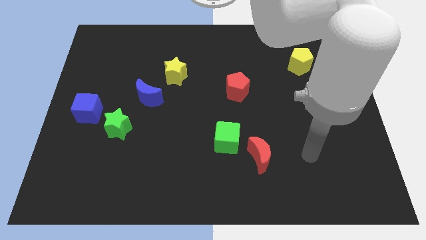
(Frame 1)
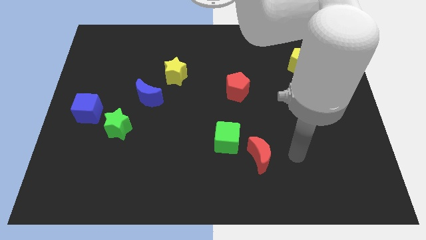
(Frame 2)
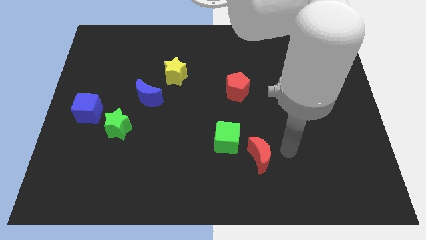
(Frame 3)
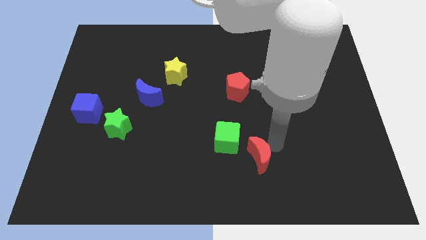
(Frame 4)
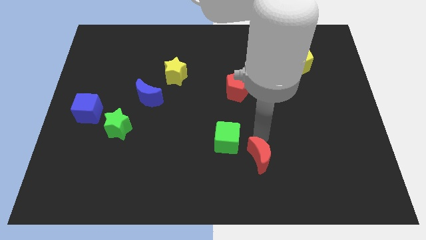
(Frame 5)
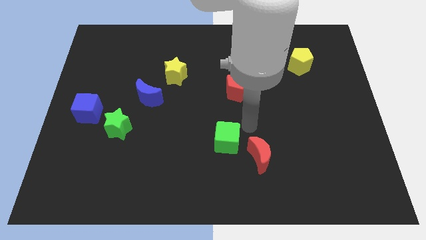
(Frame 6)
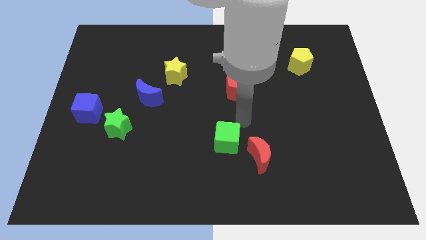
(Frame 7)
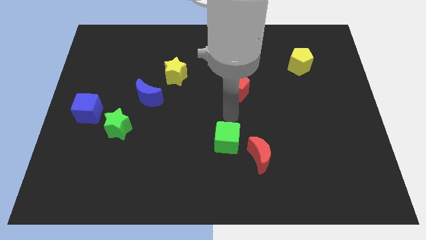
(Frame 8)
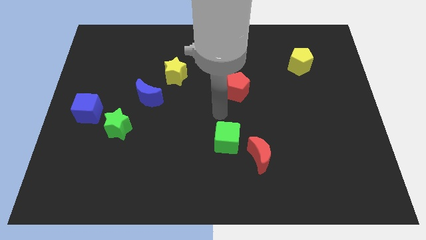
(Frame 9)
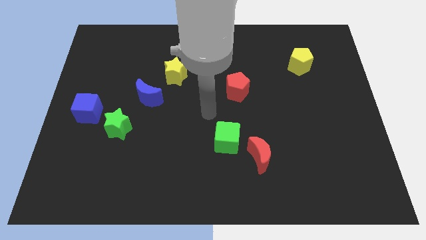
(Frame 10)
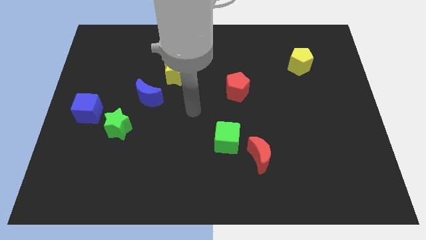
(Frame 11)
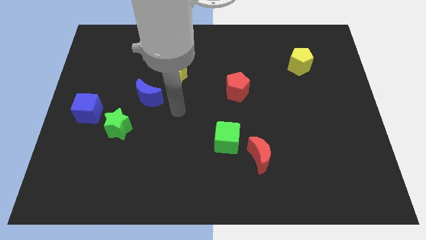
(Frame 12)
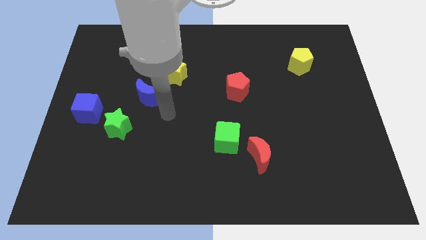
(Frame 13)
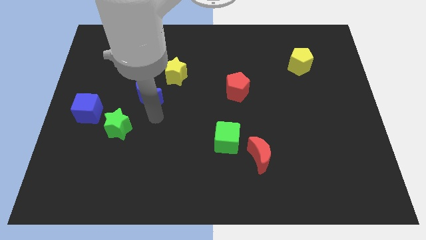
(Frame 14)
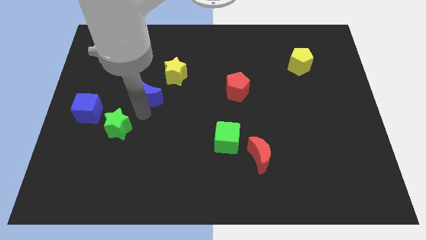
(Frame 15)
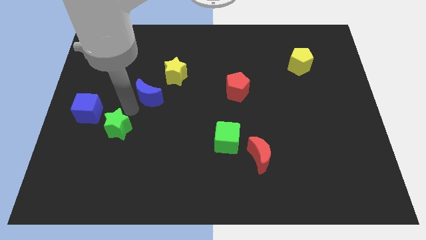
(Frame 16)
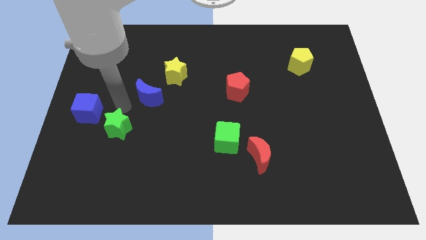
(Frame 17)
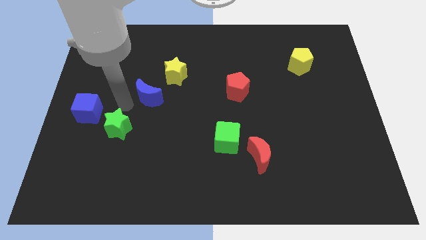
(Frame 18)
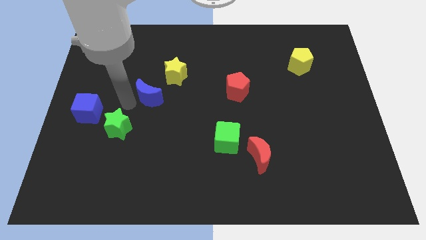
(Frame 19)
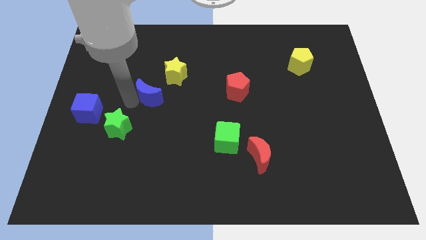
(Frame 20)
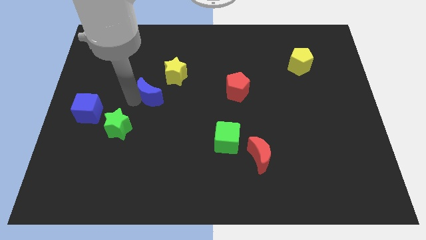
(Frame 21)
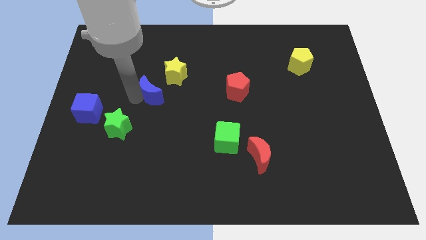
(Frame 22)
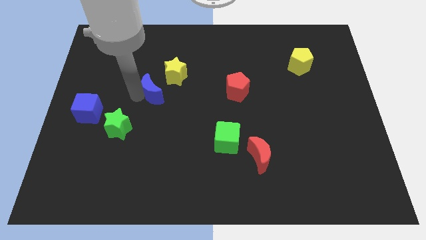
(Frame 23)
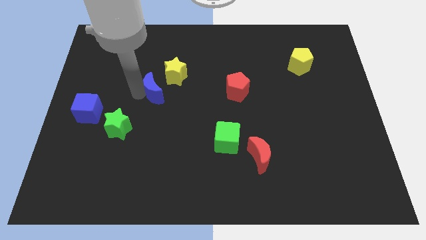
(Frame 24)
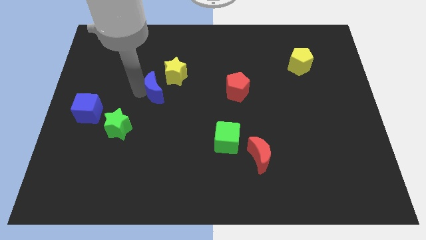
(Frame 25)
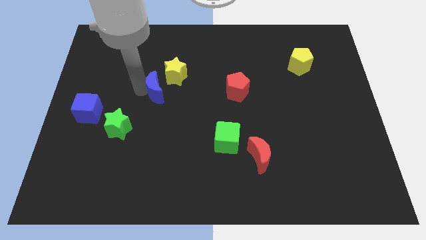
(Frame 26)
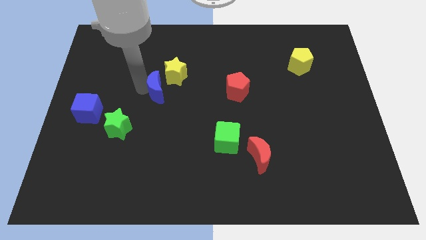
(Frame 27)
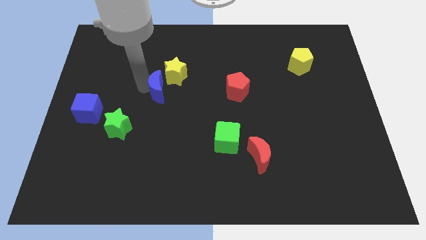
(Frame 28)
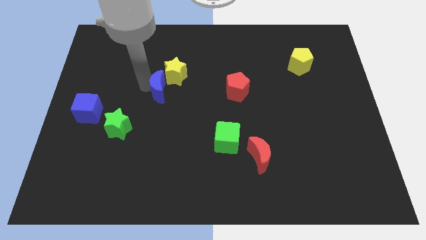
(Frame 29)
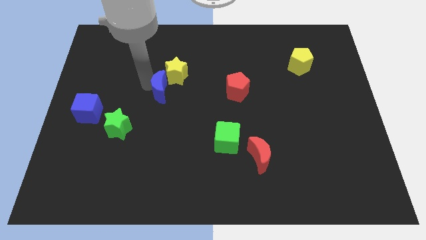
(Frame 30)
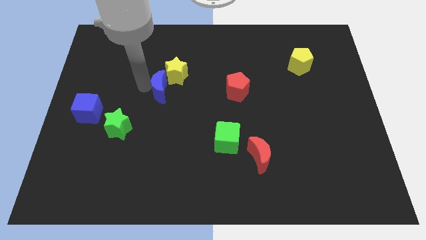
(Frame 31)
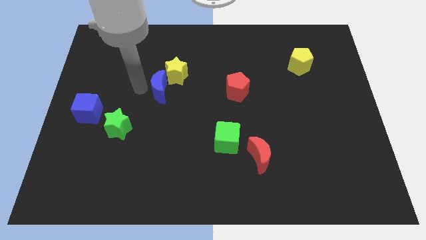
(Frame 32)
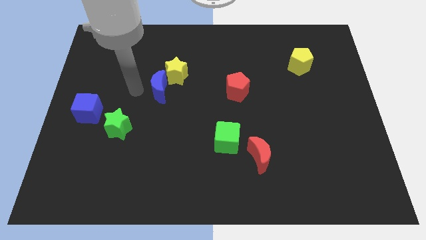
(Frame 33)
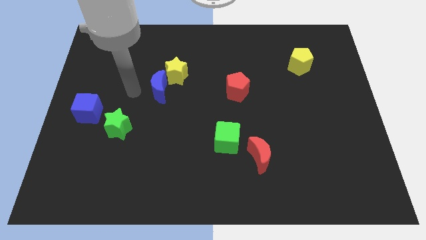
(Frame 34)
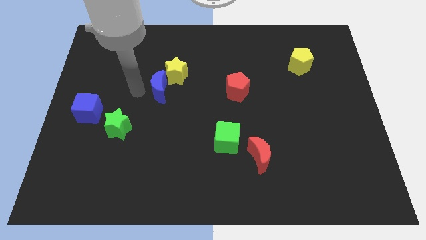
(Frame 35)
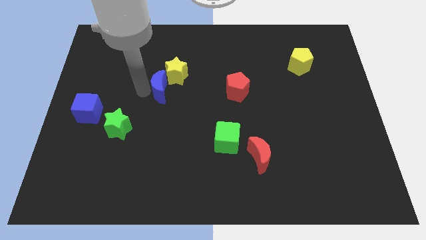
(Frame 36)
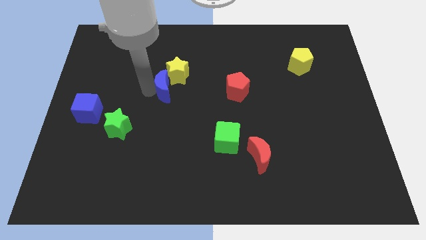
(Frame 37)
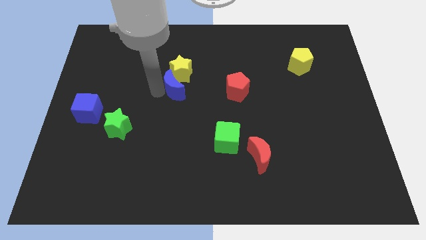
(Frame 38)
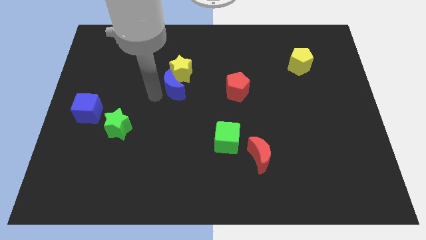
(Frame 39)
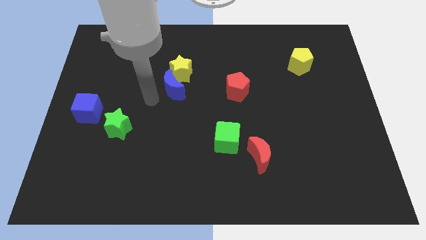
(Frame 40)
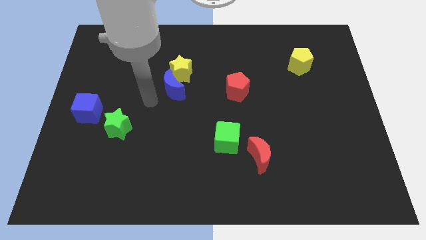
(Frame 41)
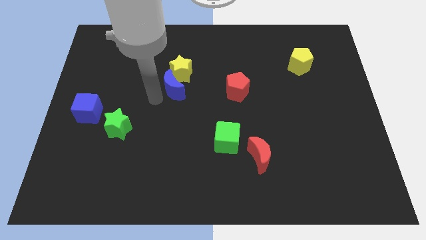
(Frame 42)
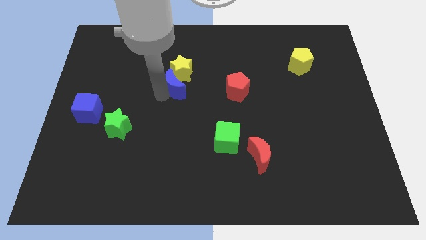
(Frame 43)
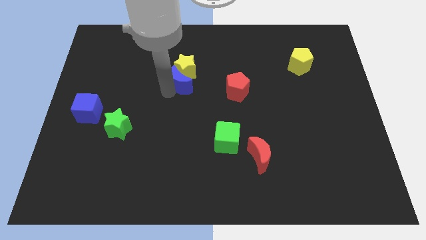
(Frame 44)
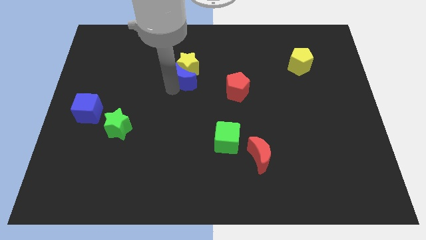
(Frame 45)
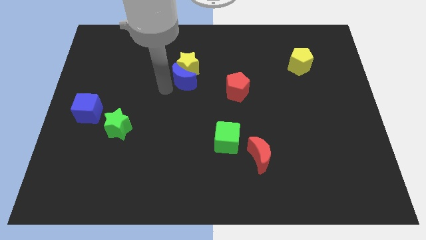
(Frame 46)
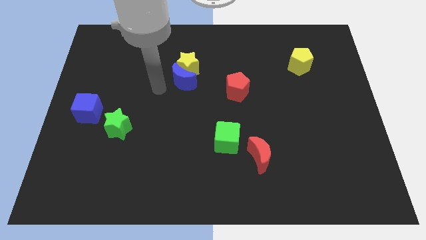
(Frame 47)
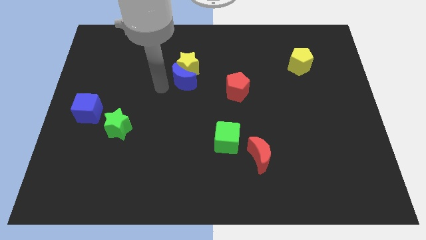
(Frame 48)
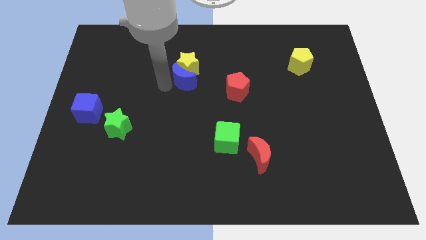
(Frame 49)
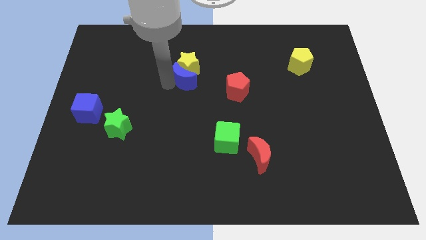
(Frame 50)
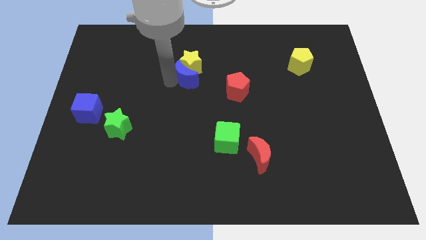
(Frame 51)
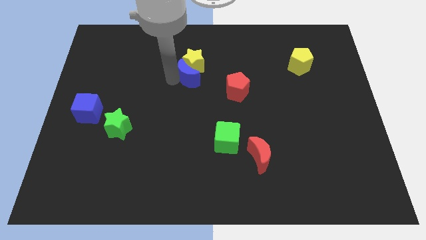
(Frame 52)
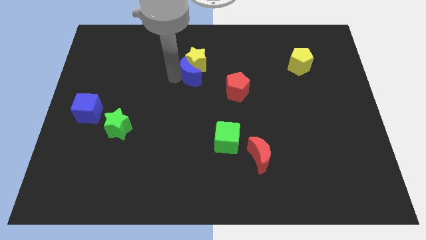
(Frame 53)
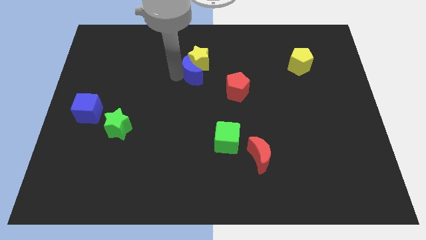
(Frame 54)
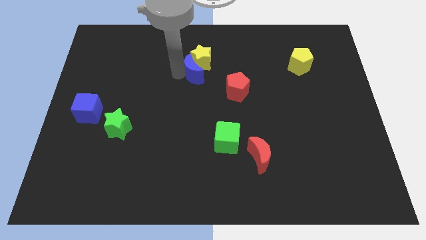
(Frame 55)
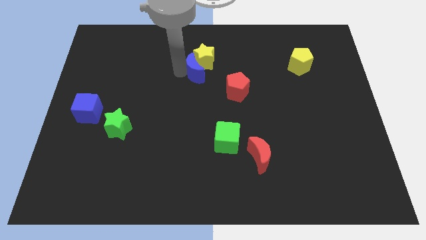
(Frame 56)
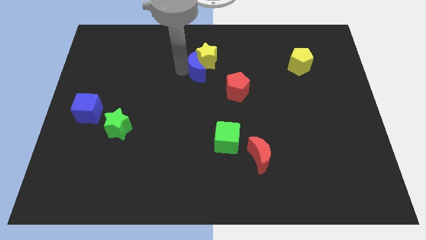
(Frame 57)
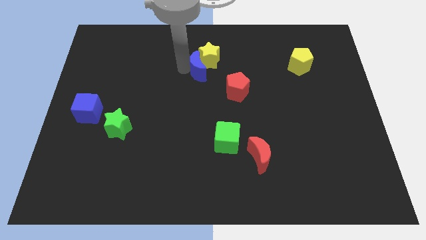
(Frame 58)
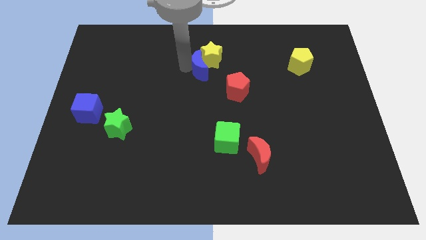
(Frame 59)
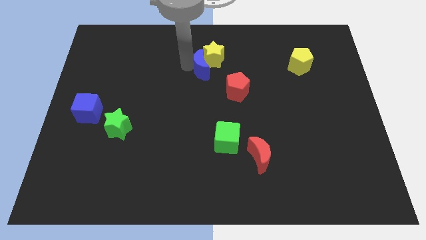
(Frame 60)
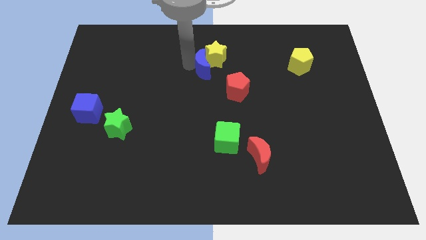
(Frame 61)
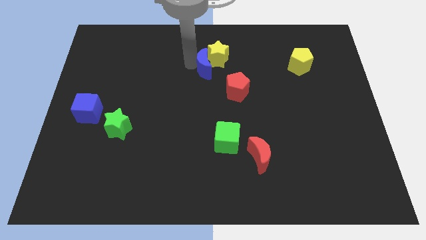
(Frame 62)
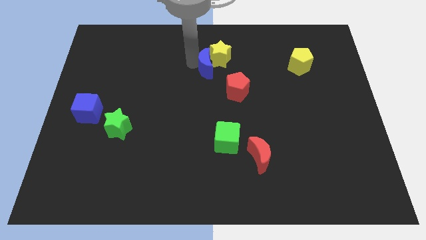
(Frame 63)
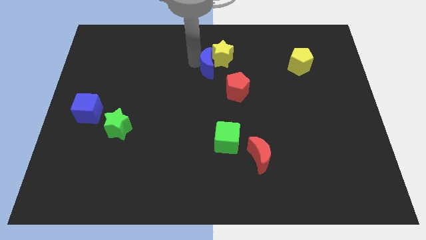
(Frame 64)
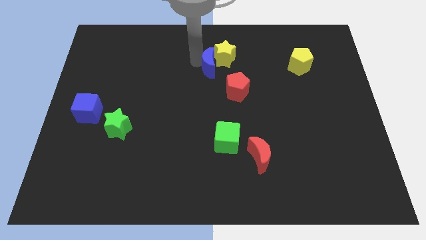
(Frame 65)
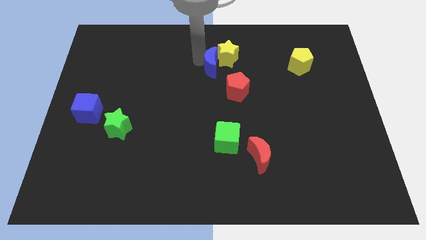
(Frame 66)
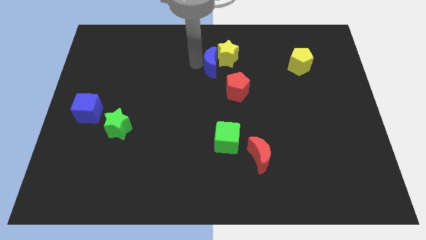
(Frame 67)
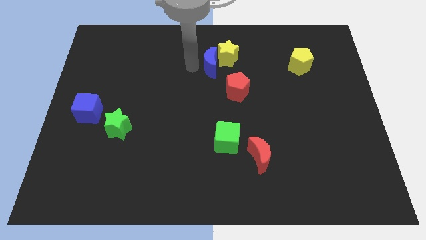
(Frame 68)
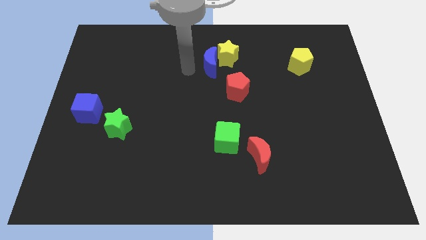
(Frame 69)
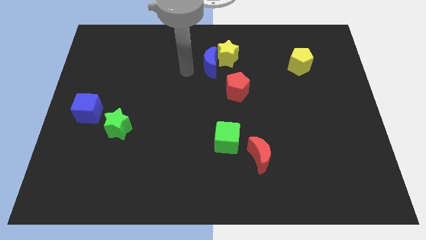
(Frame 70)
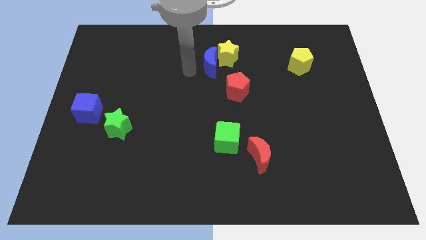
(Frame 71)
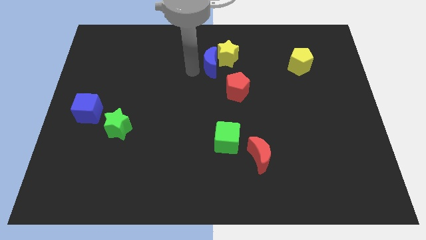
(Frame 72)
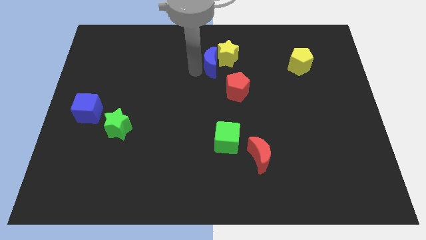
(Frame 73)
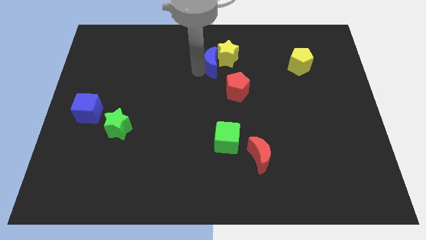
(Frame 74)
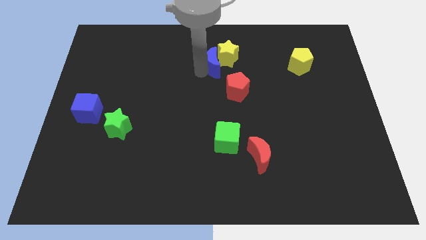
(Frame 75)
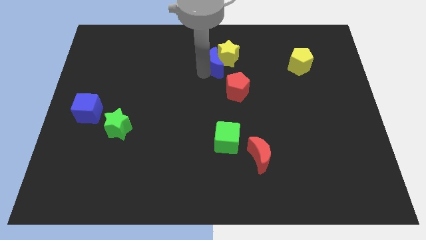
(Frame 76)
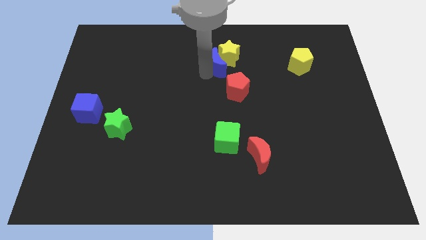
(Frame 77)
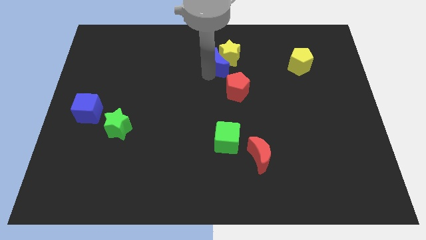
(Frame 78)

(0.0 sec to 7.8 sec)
push the blue moon to the top side of the red pentagon
